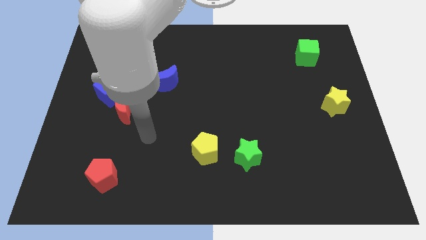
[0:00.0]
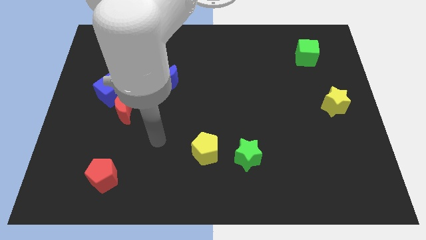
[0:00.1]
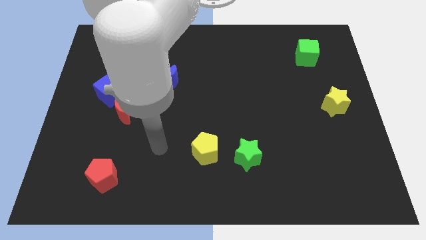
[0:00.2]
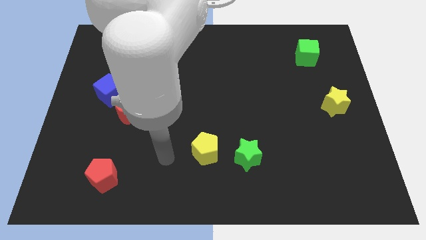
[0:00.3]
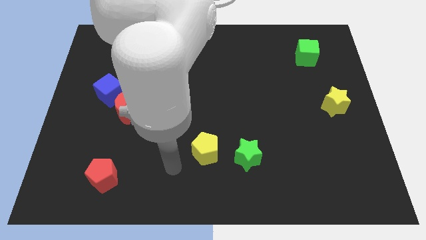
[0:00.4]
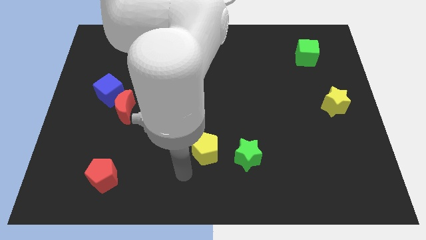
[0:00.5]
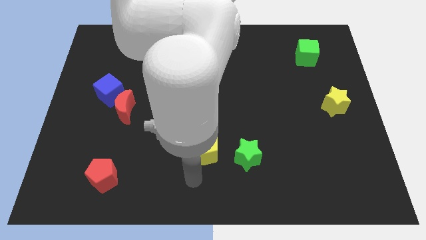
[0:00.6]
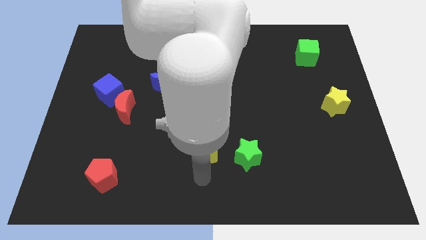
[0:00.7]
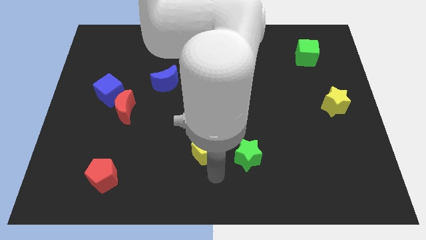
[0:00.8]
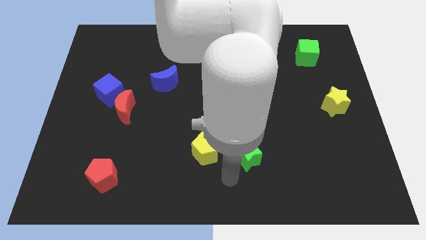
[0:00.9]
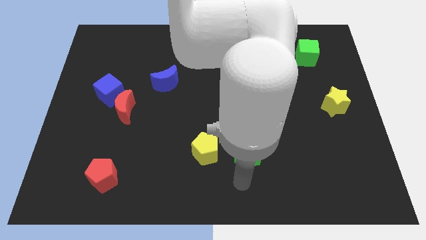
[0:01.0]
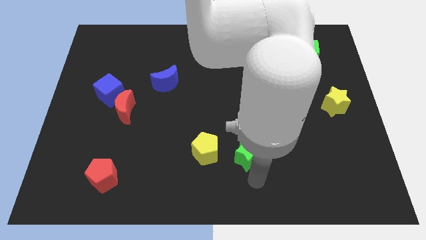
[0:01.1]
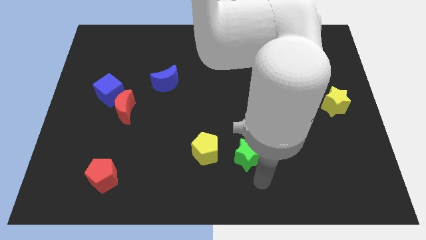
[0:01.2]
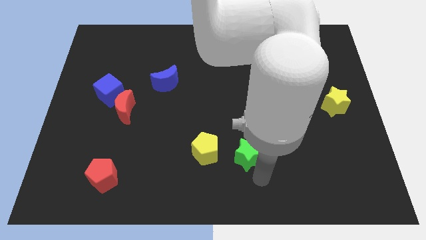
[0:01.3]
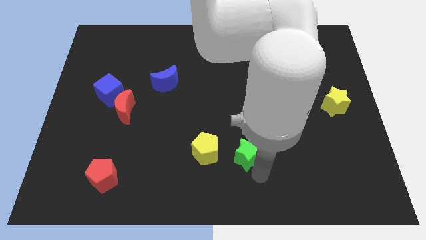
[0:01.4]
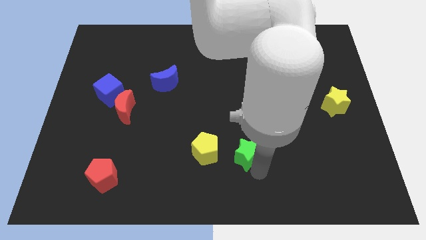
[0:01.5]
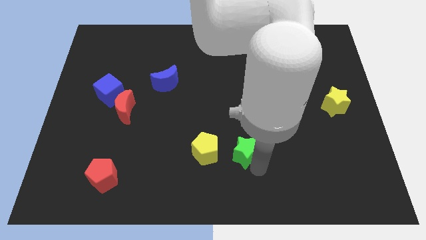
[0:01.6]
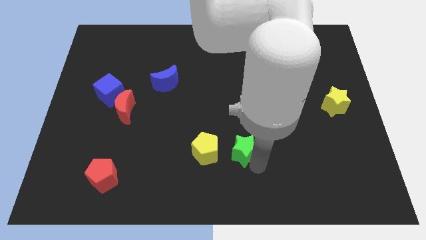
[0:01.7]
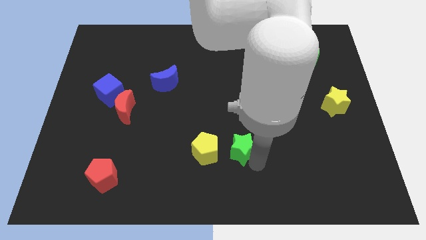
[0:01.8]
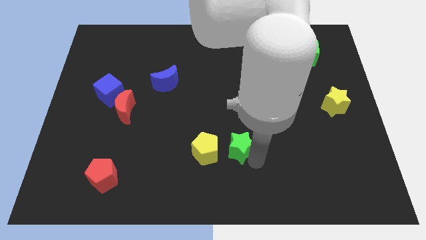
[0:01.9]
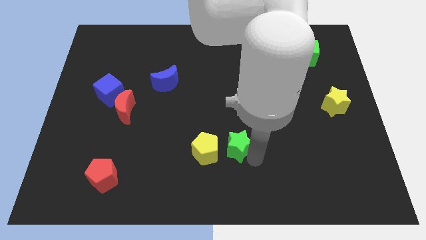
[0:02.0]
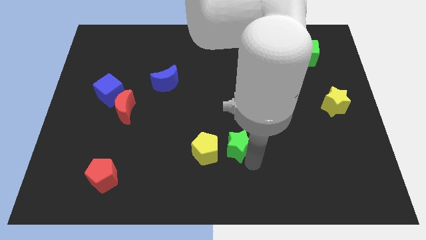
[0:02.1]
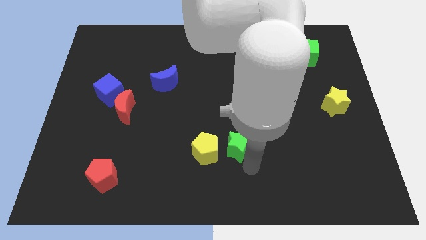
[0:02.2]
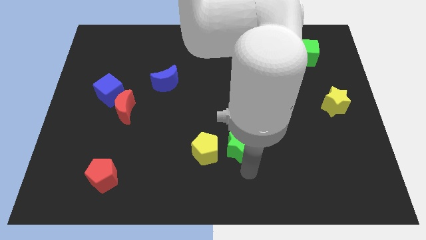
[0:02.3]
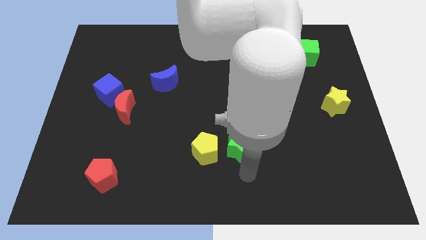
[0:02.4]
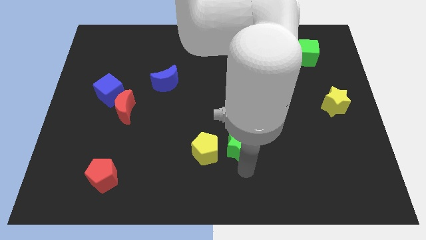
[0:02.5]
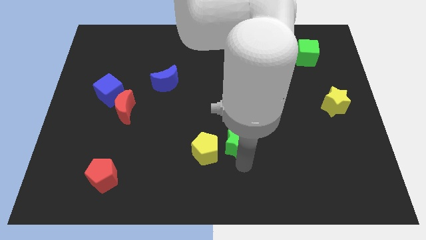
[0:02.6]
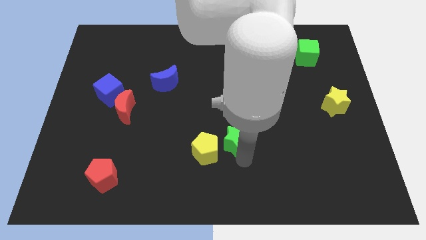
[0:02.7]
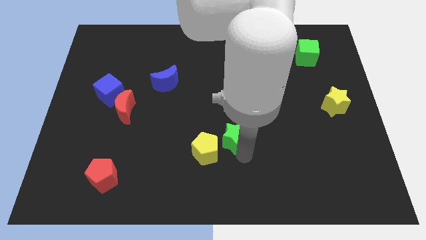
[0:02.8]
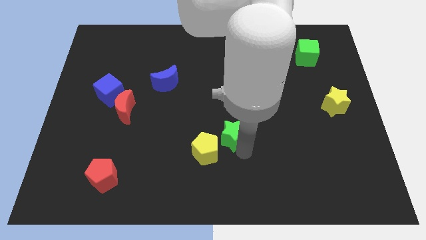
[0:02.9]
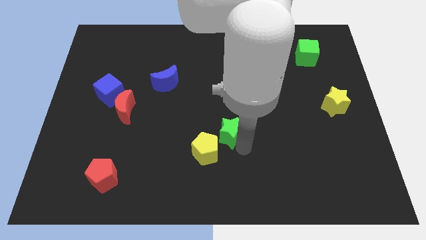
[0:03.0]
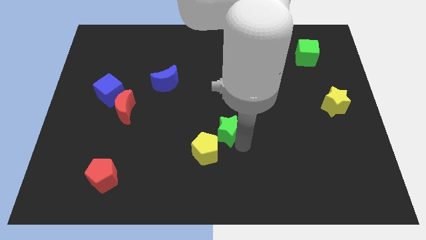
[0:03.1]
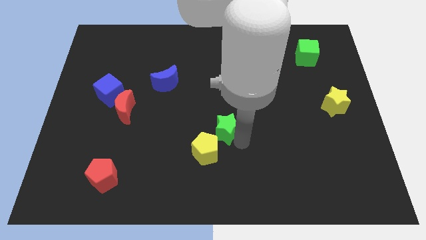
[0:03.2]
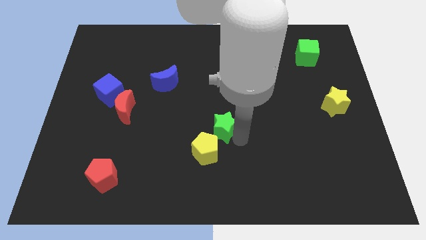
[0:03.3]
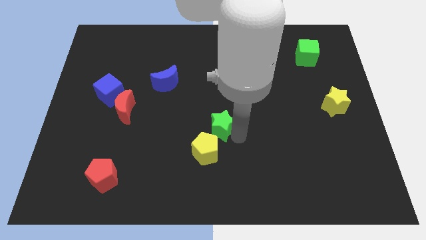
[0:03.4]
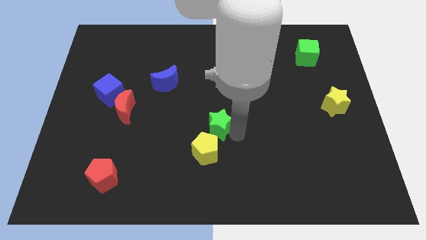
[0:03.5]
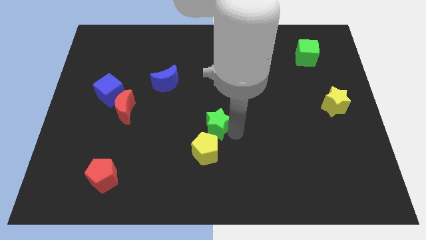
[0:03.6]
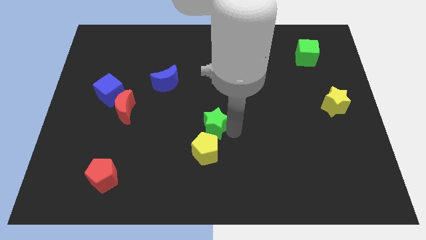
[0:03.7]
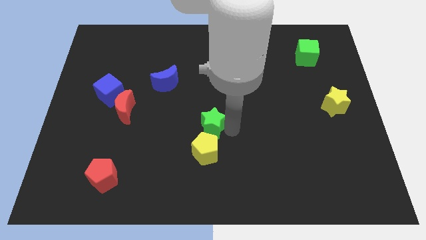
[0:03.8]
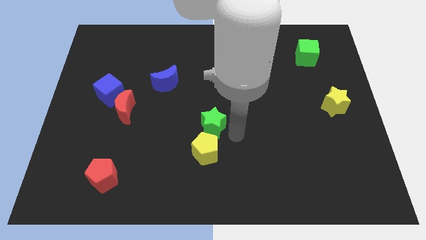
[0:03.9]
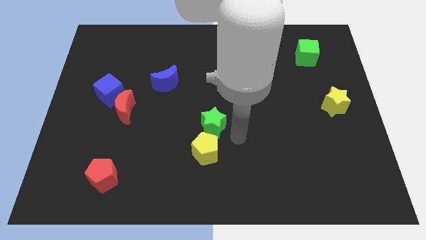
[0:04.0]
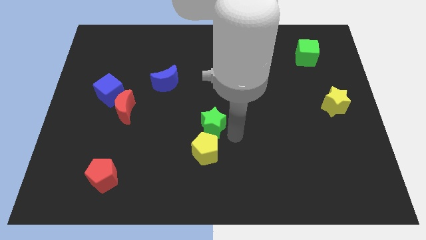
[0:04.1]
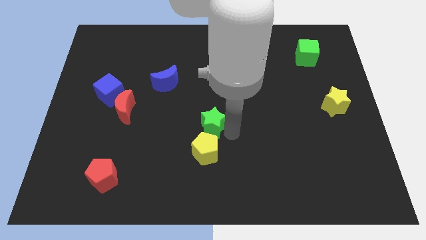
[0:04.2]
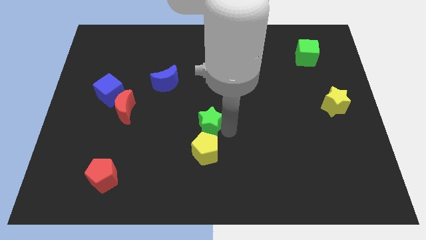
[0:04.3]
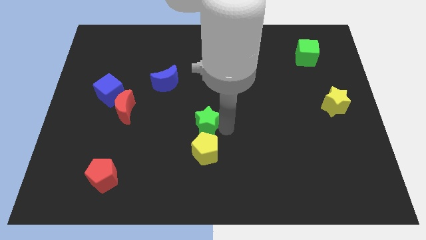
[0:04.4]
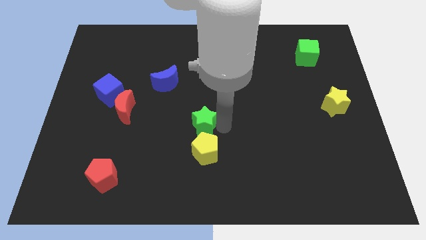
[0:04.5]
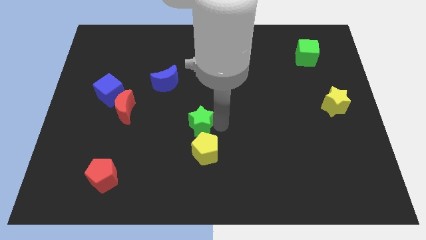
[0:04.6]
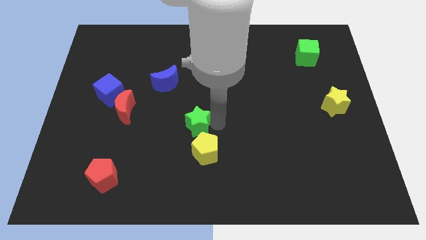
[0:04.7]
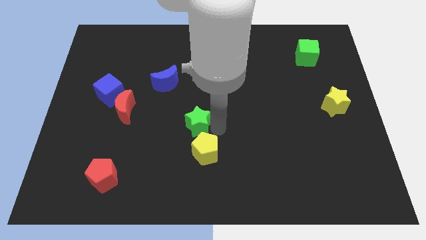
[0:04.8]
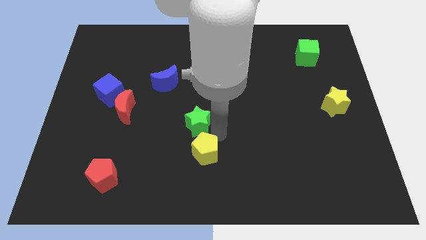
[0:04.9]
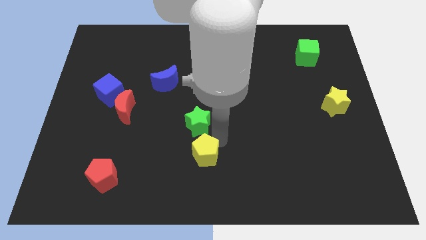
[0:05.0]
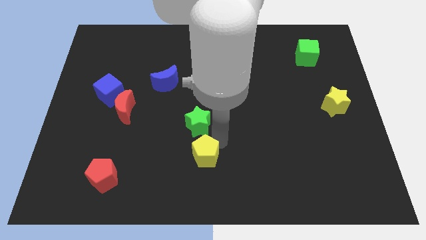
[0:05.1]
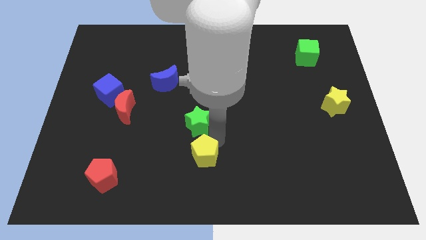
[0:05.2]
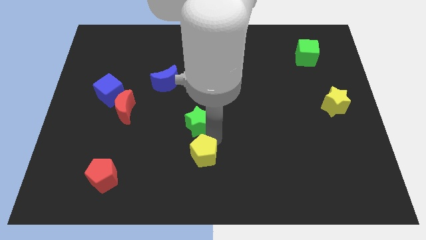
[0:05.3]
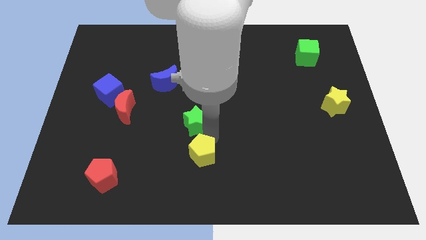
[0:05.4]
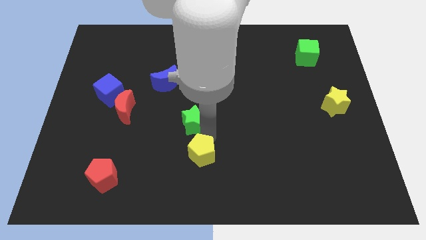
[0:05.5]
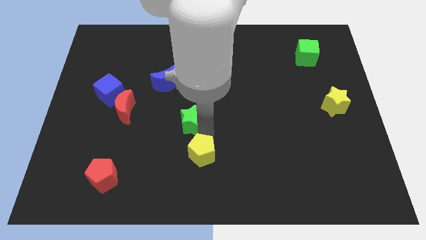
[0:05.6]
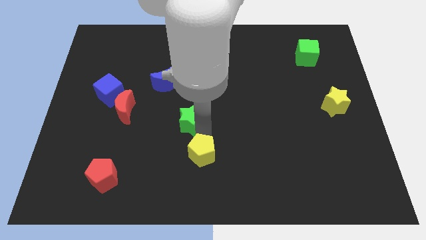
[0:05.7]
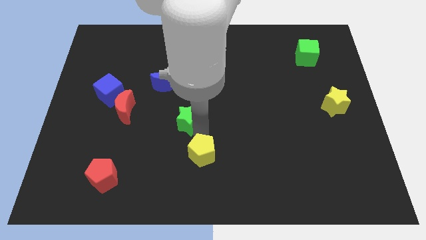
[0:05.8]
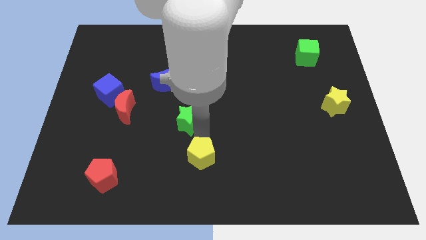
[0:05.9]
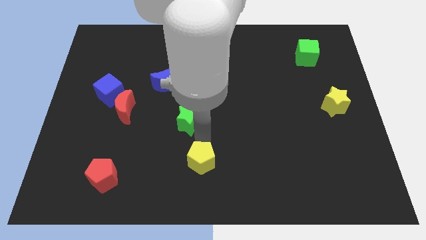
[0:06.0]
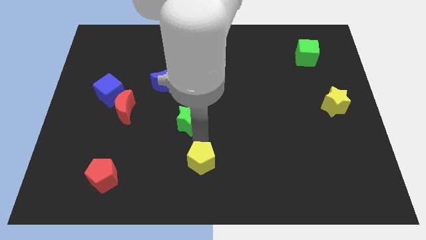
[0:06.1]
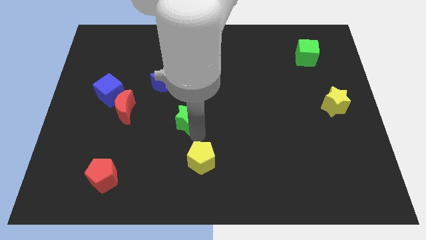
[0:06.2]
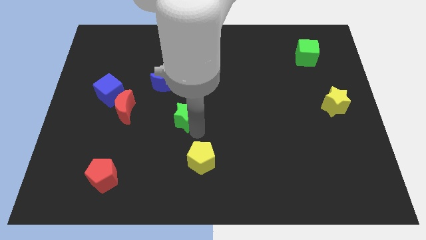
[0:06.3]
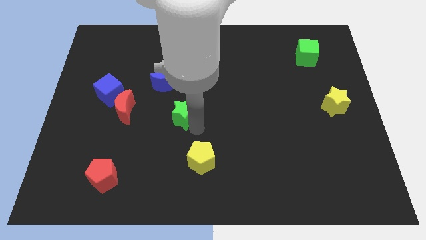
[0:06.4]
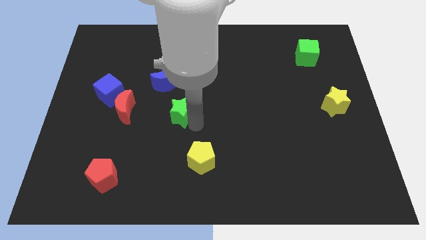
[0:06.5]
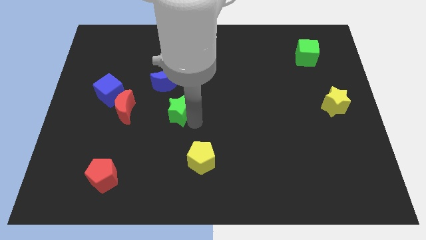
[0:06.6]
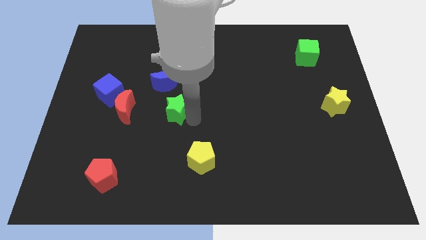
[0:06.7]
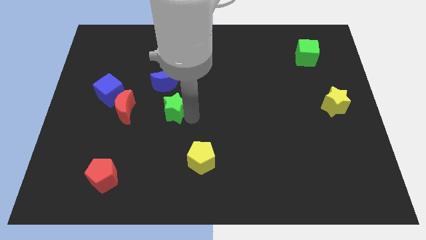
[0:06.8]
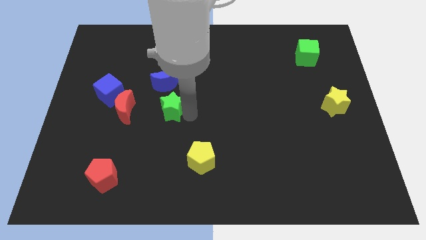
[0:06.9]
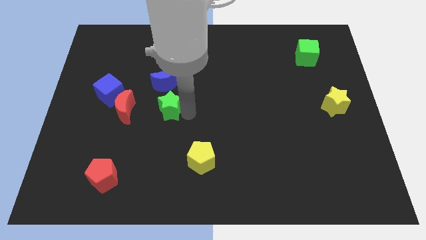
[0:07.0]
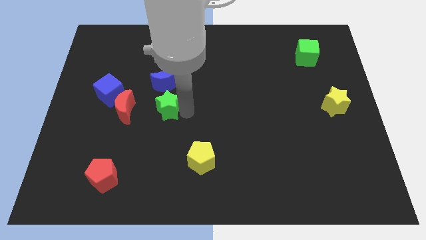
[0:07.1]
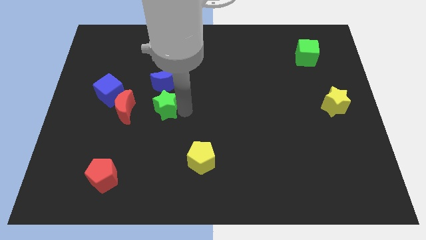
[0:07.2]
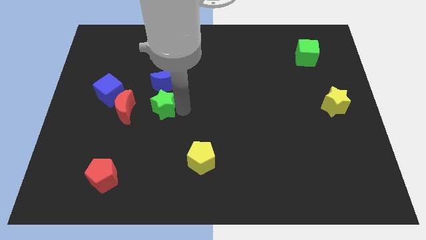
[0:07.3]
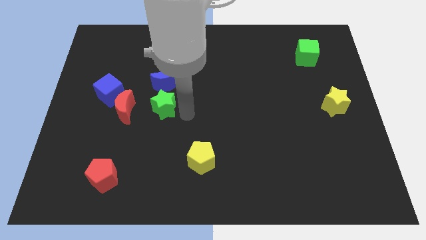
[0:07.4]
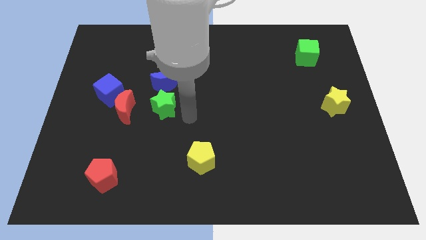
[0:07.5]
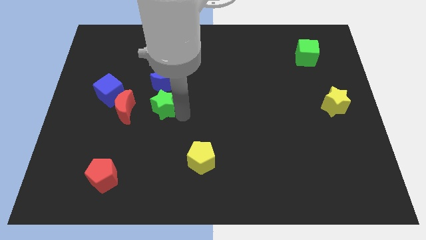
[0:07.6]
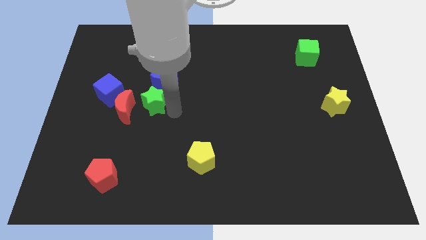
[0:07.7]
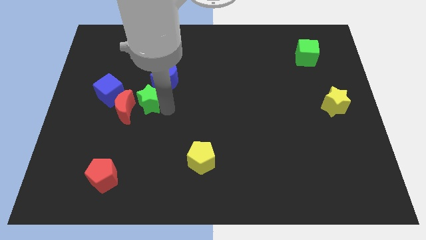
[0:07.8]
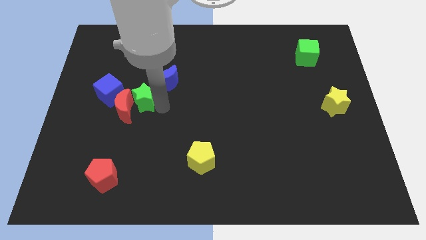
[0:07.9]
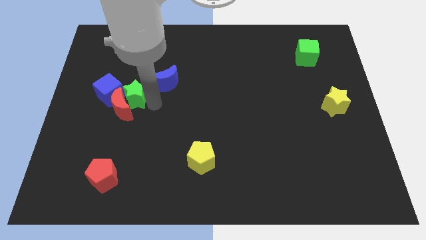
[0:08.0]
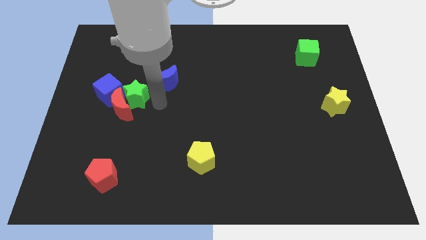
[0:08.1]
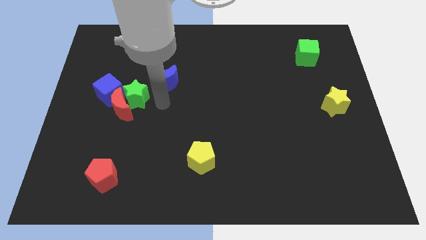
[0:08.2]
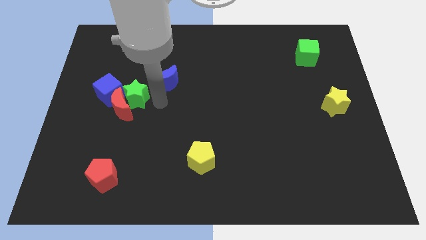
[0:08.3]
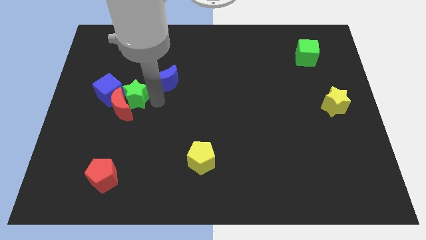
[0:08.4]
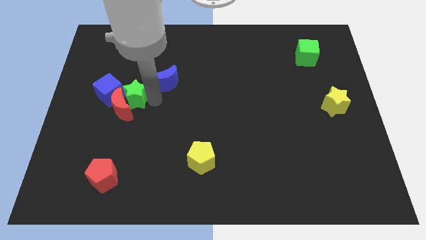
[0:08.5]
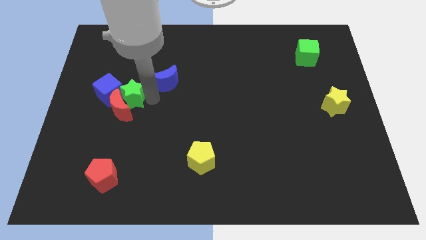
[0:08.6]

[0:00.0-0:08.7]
put the green star next to the blue cube
